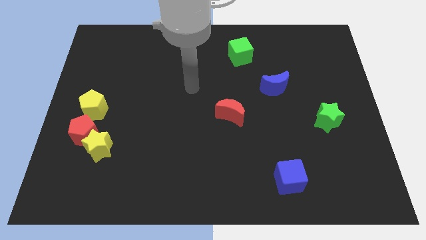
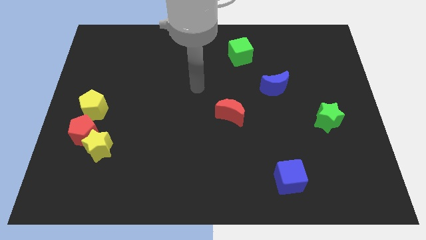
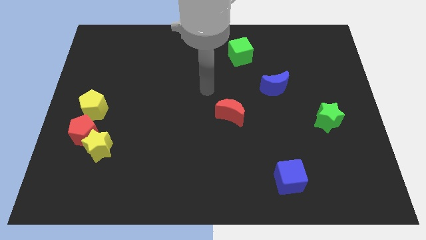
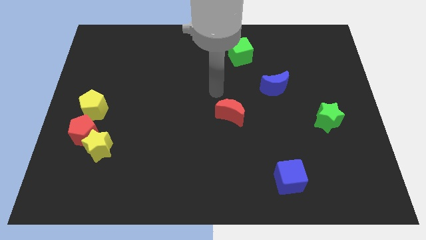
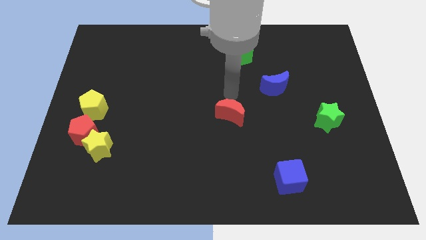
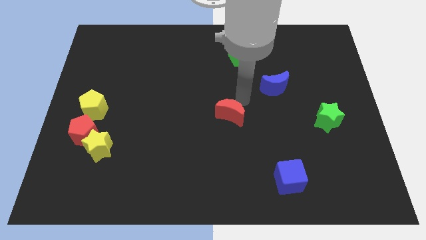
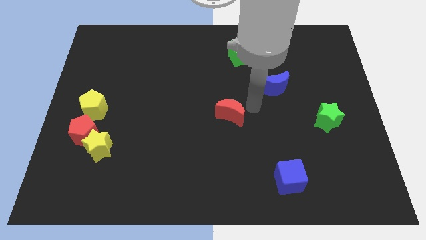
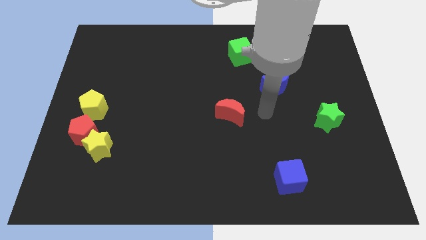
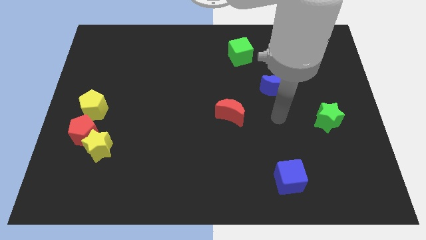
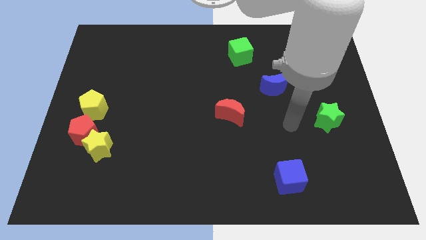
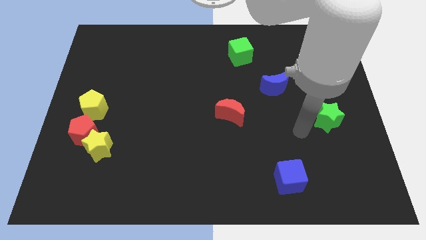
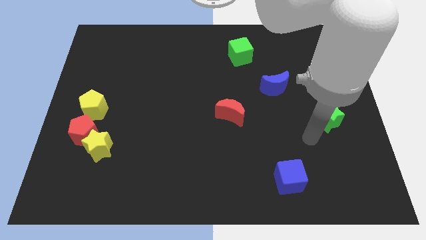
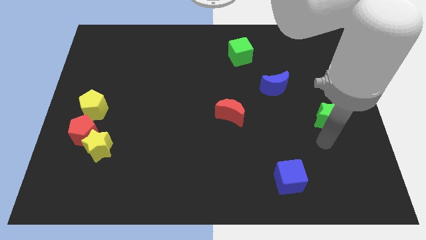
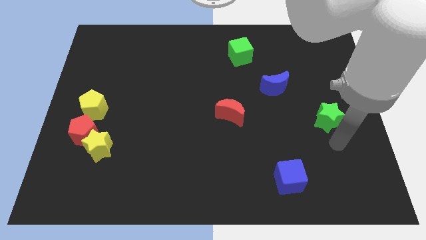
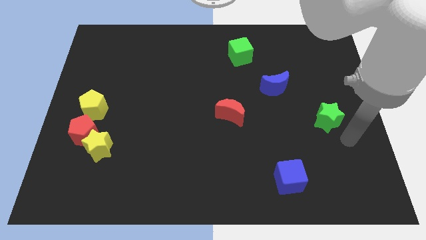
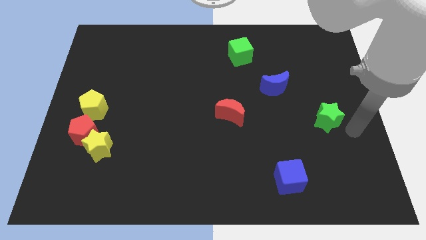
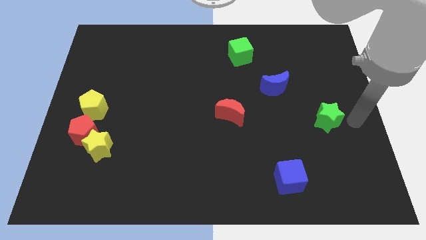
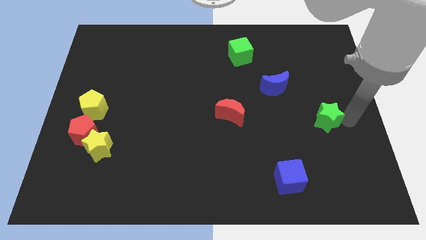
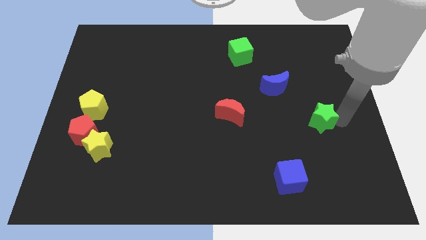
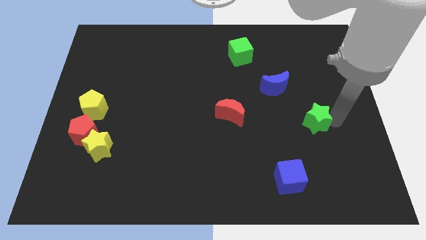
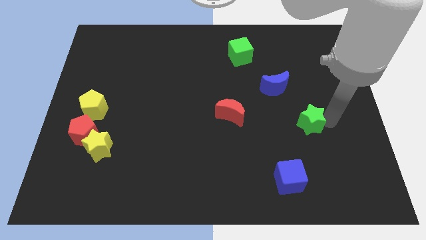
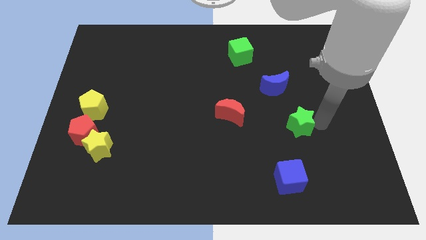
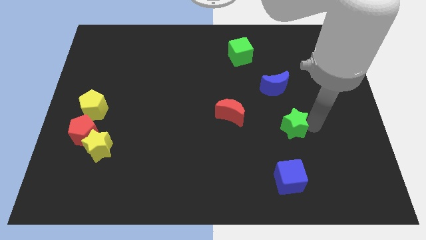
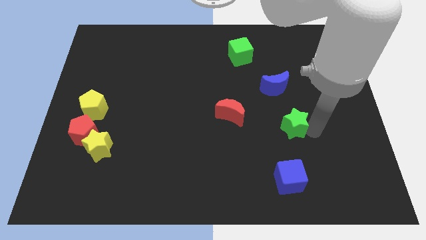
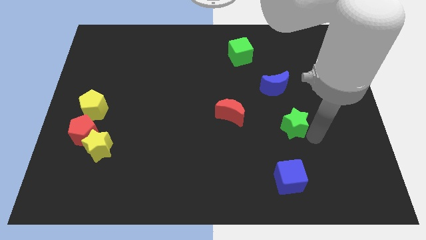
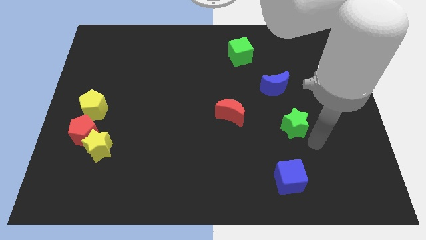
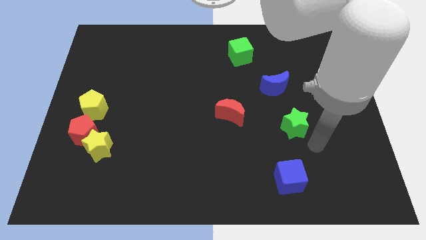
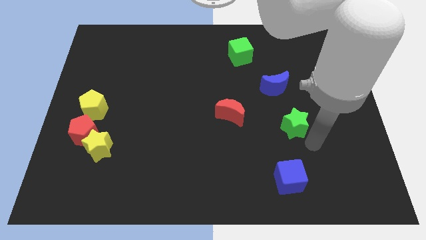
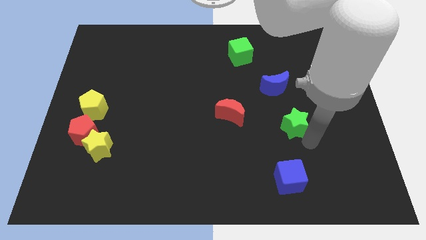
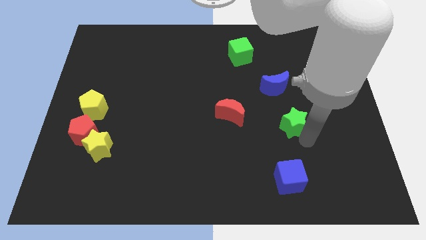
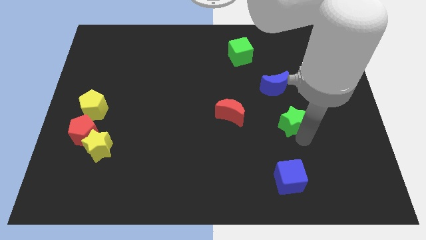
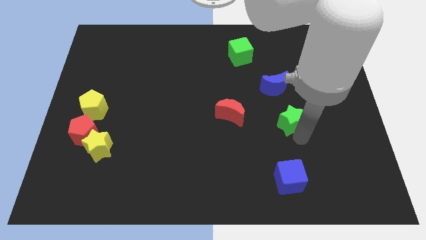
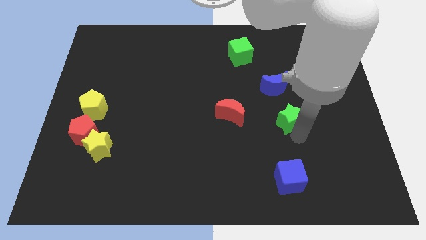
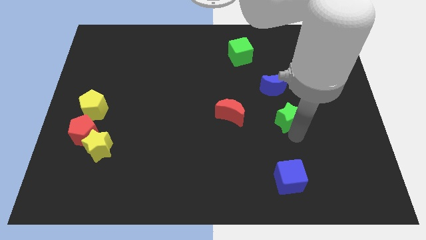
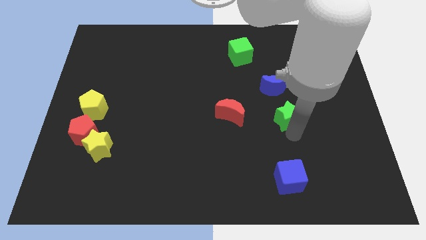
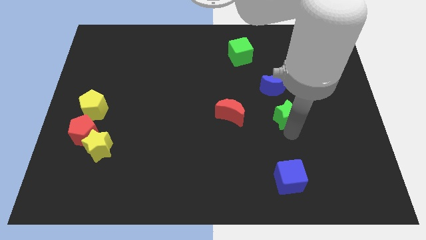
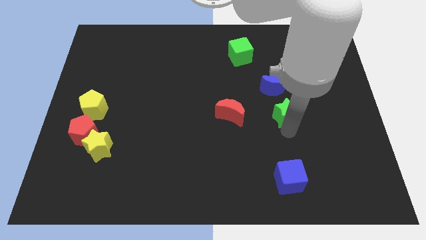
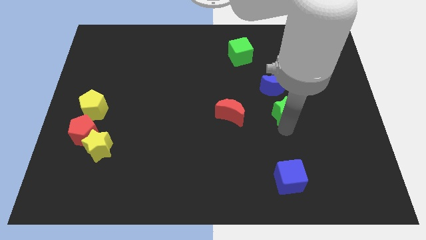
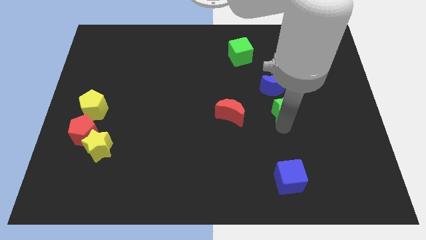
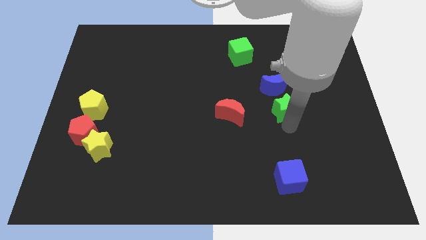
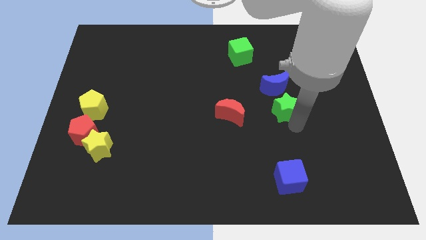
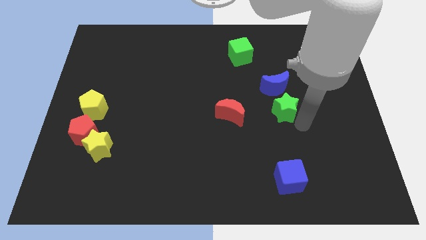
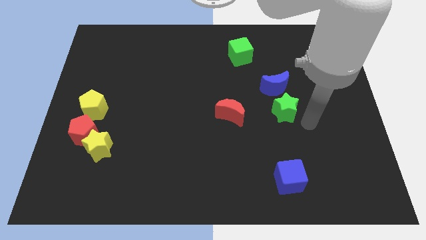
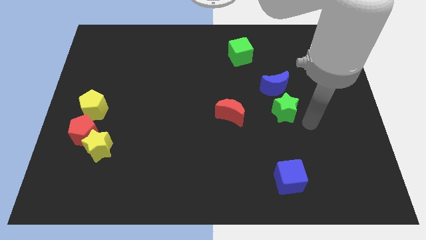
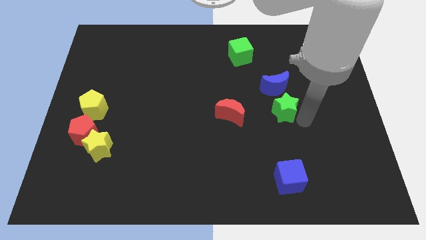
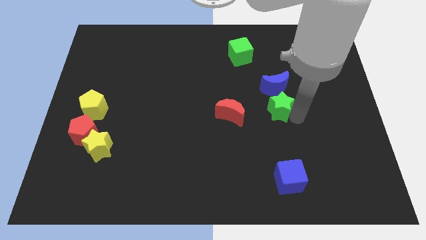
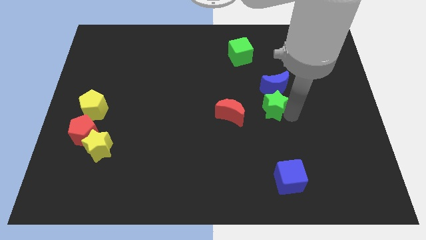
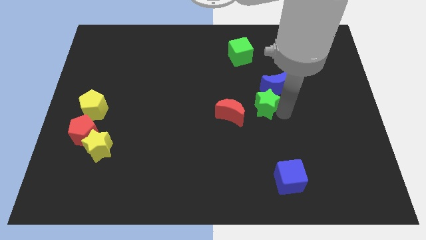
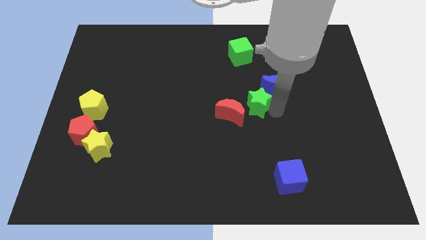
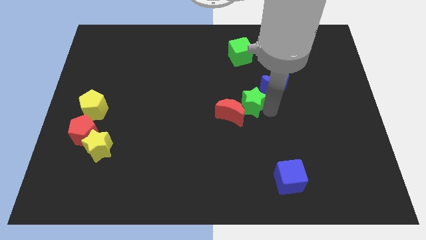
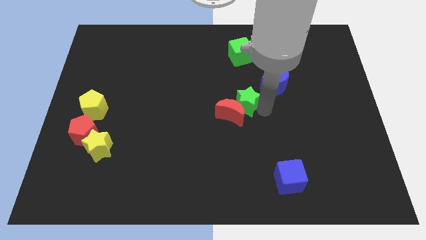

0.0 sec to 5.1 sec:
put the green star above the red moon

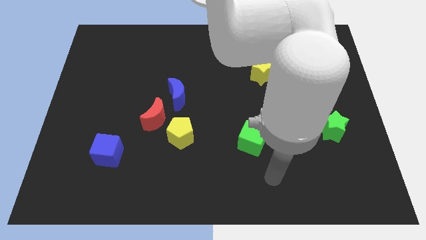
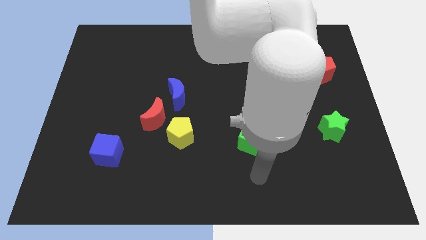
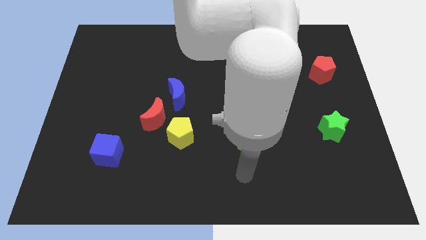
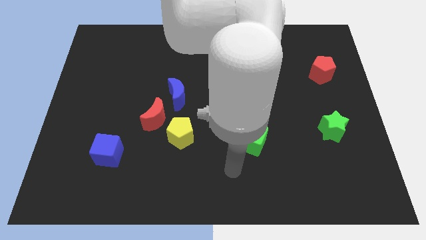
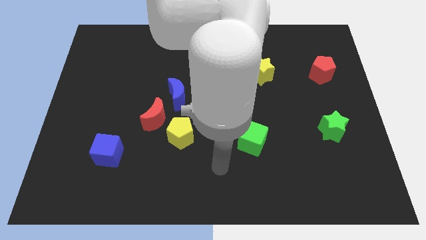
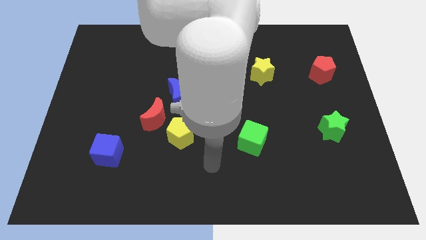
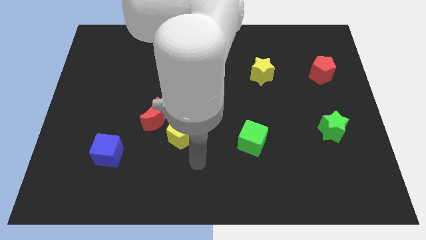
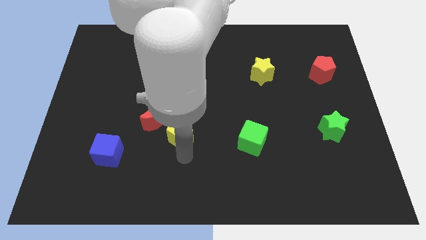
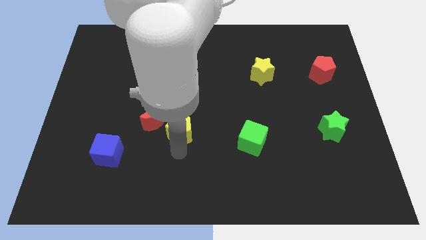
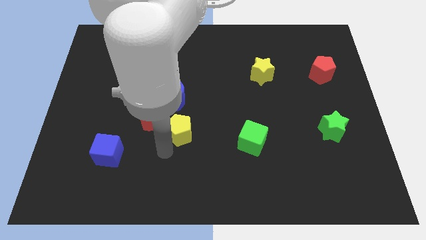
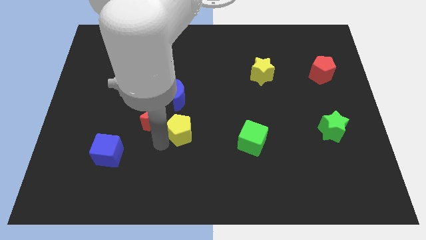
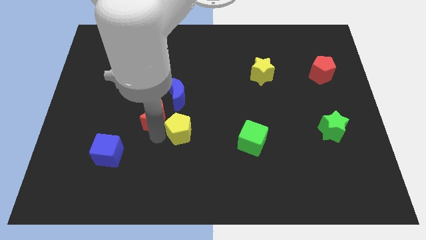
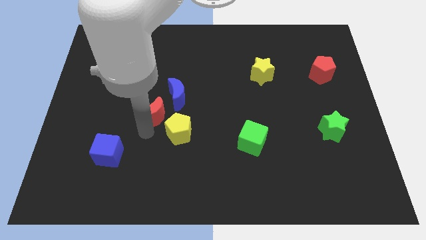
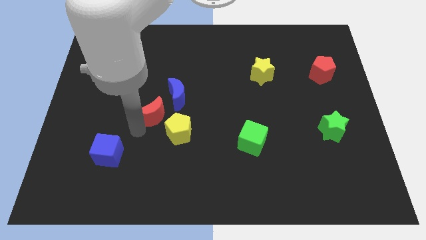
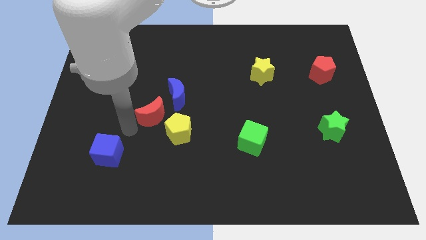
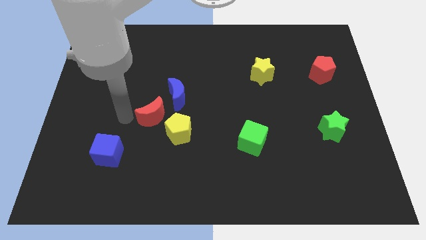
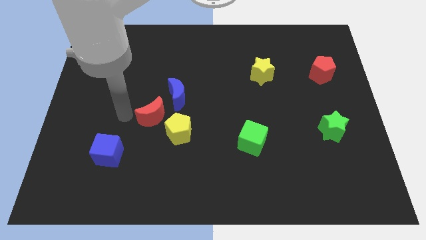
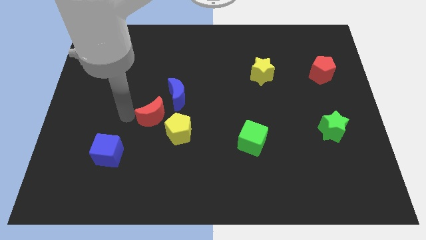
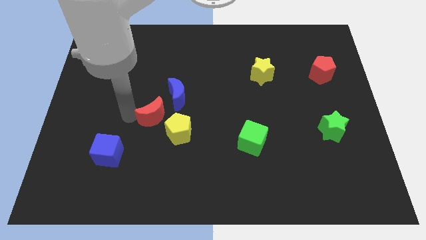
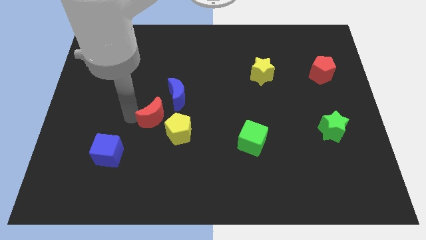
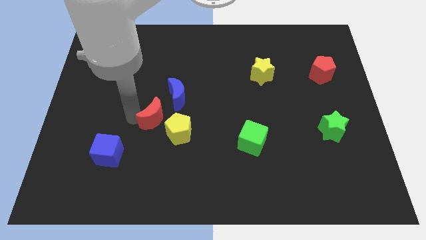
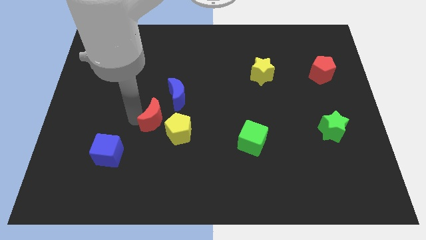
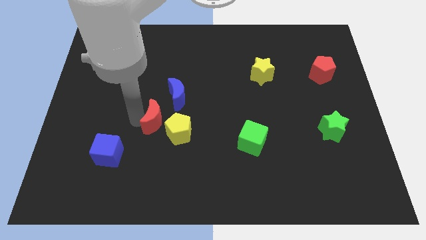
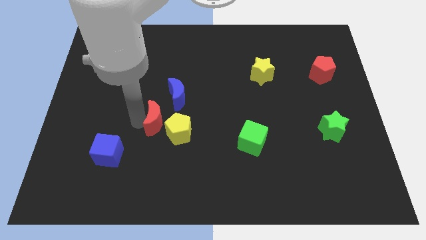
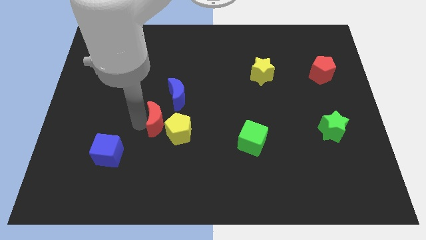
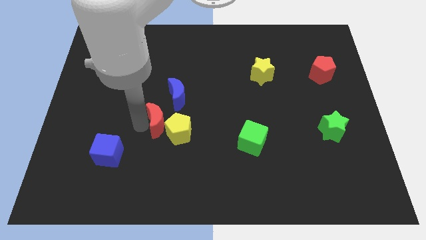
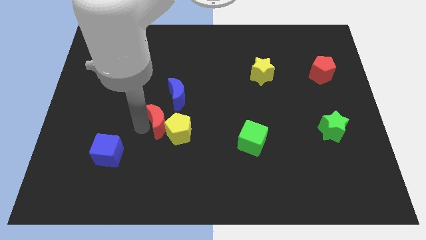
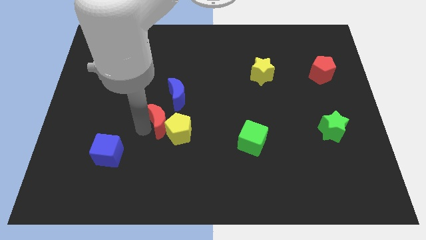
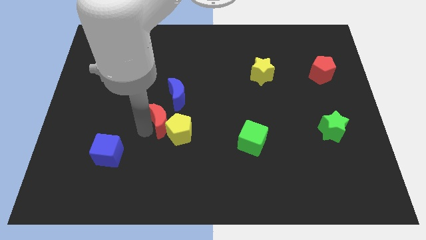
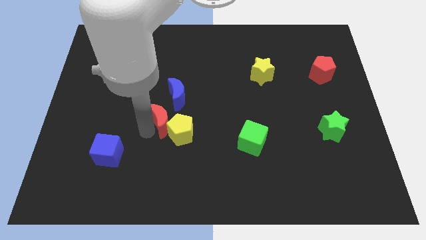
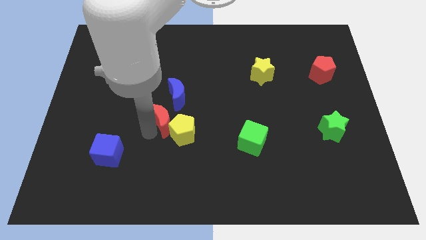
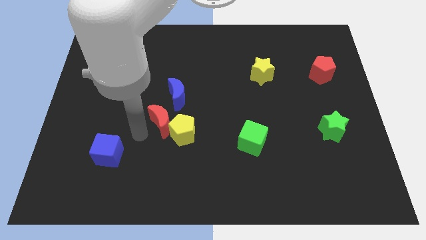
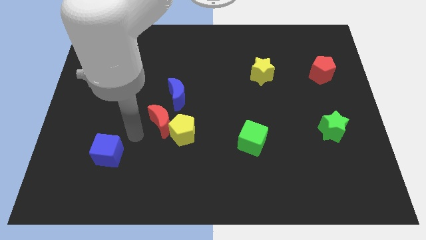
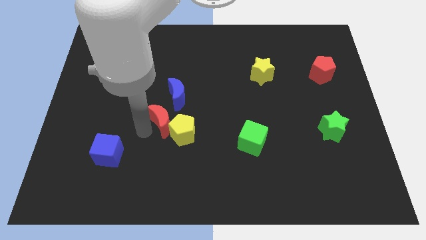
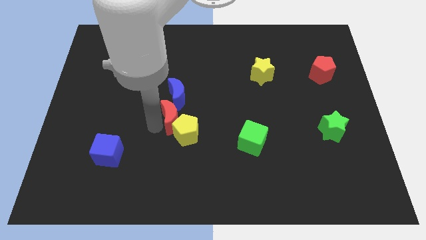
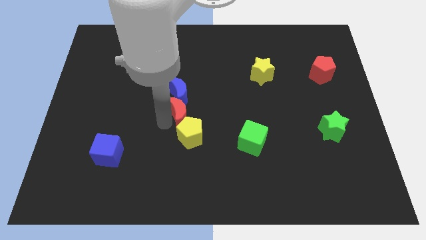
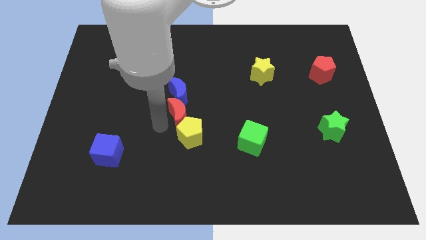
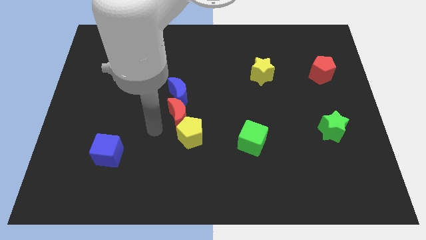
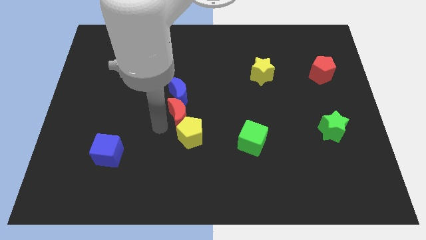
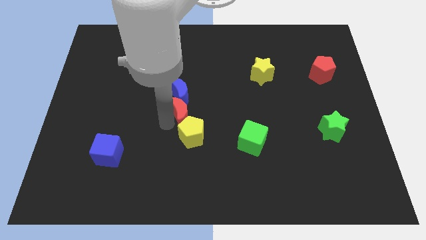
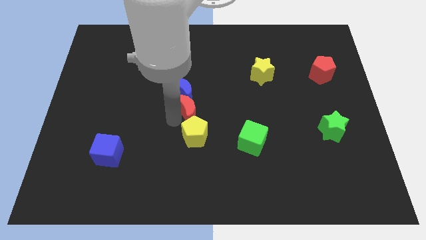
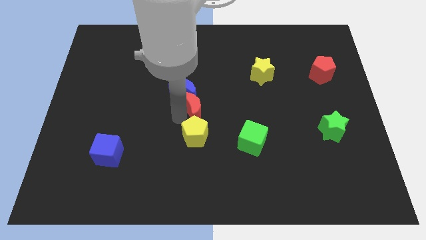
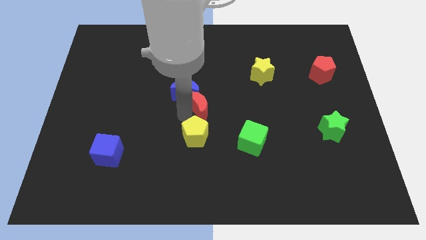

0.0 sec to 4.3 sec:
put the red moon to the right of the blue moon
